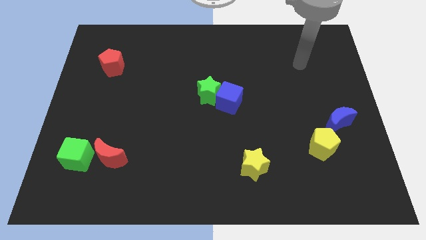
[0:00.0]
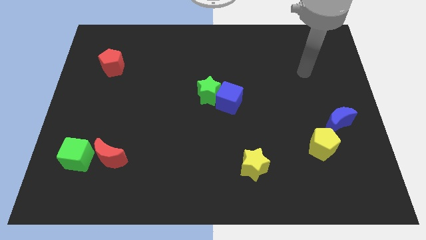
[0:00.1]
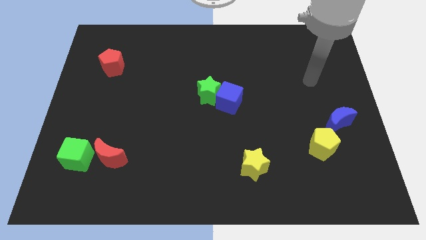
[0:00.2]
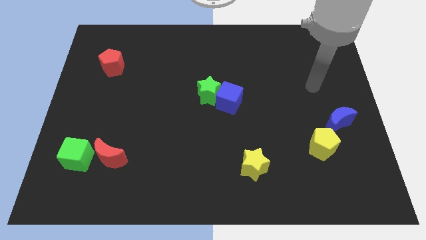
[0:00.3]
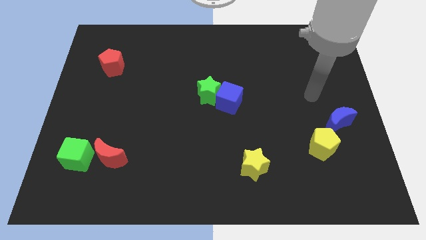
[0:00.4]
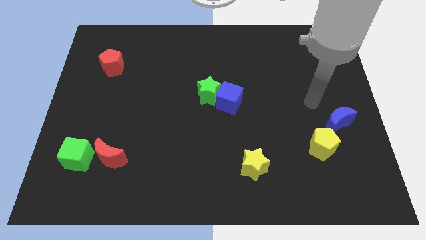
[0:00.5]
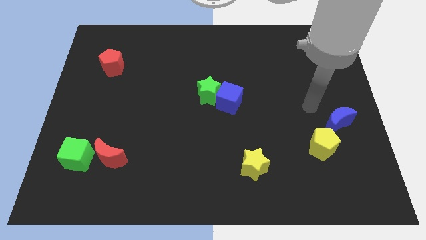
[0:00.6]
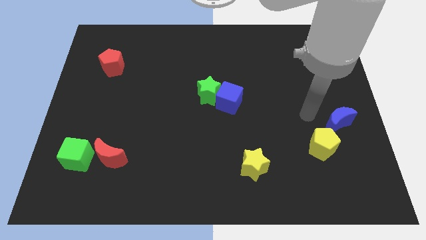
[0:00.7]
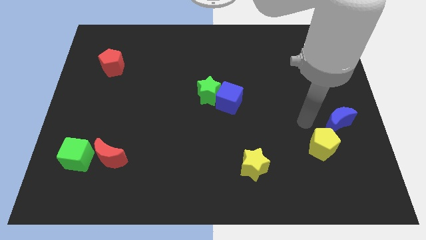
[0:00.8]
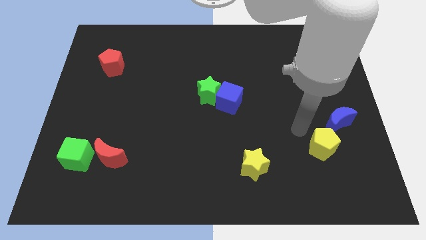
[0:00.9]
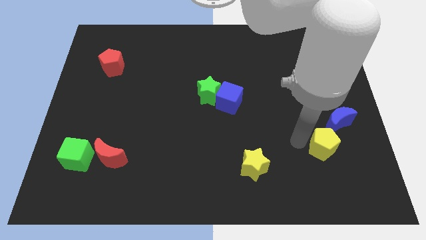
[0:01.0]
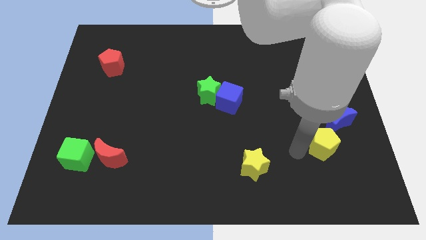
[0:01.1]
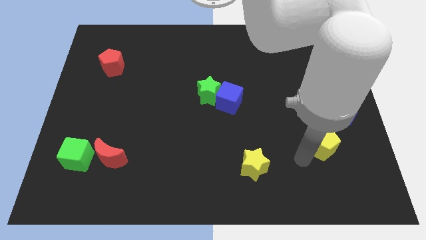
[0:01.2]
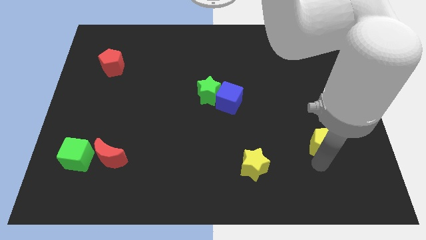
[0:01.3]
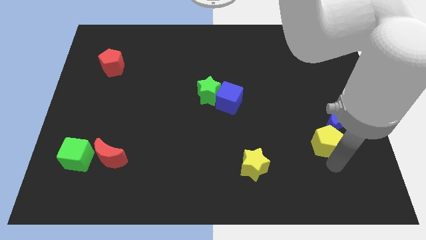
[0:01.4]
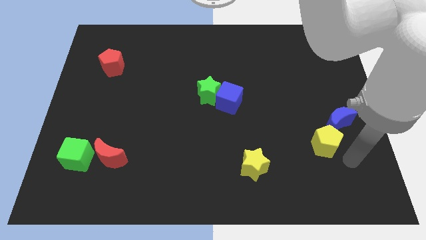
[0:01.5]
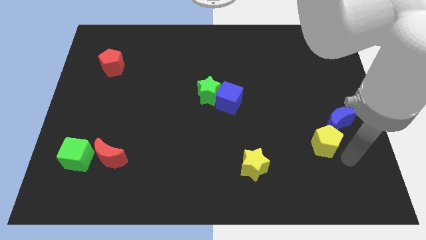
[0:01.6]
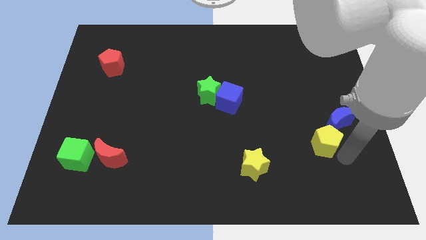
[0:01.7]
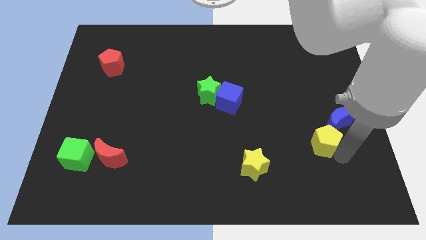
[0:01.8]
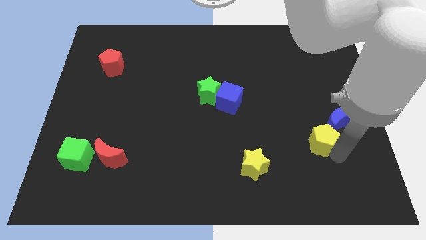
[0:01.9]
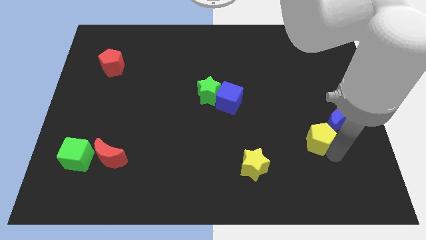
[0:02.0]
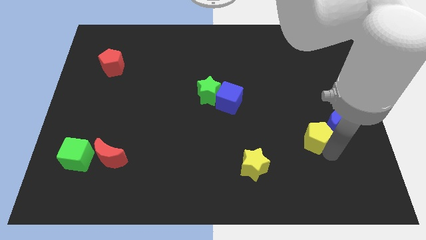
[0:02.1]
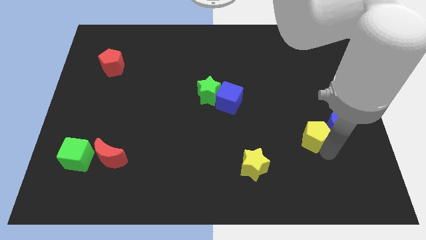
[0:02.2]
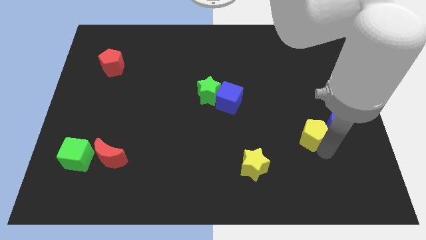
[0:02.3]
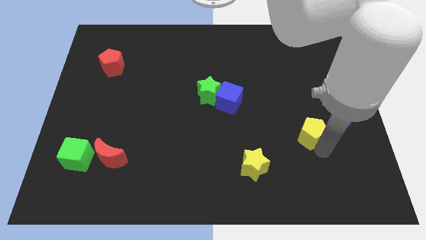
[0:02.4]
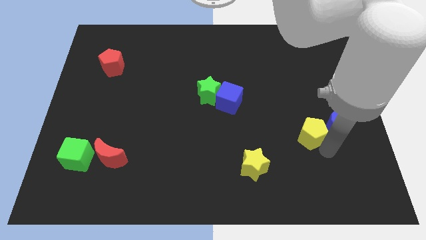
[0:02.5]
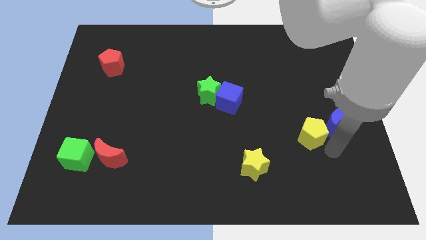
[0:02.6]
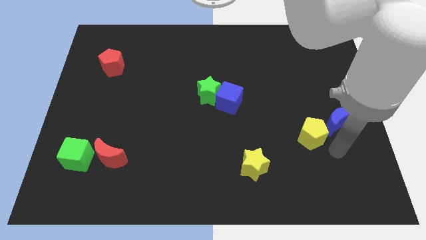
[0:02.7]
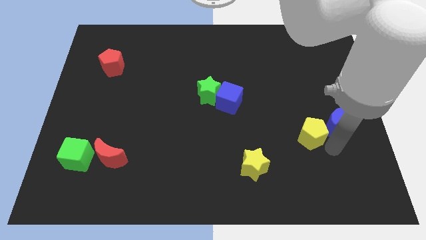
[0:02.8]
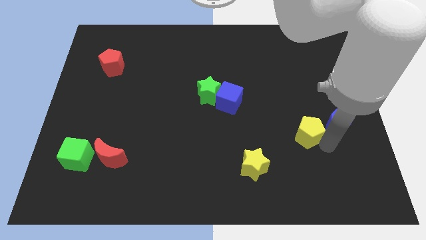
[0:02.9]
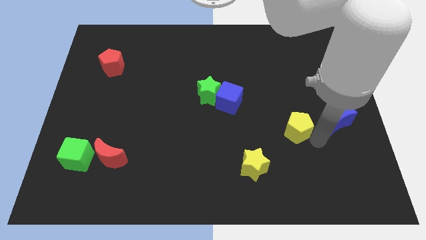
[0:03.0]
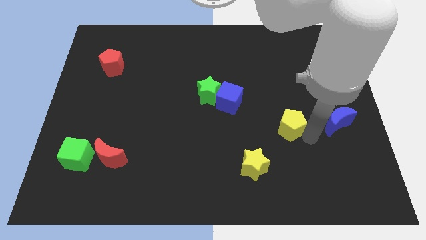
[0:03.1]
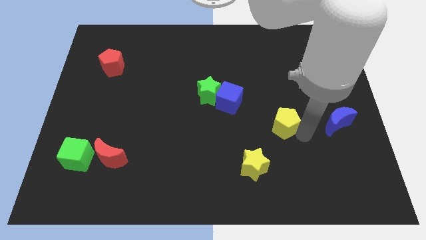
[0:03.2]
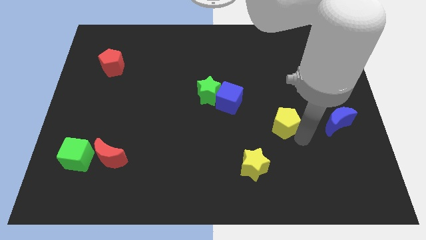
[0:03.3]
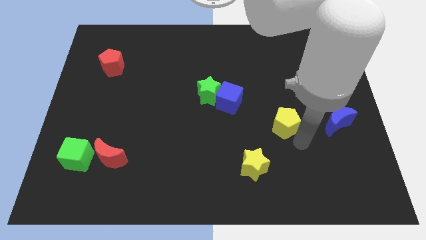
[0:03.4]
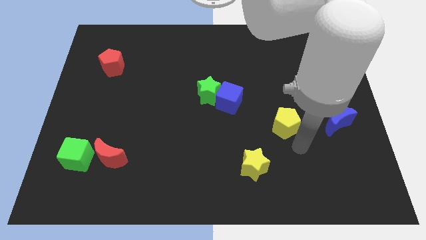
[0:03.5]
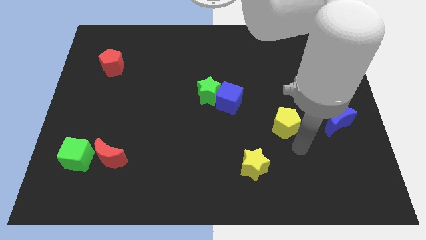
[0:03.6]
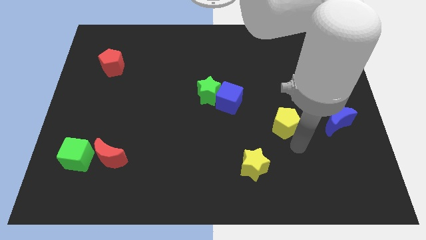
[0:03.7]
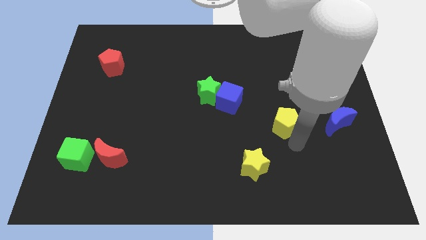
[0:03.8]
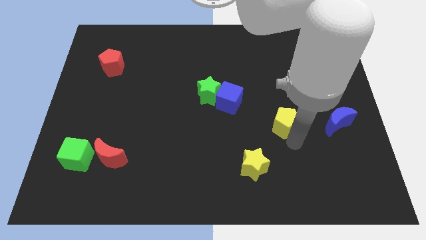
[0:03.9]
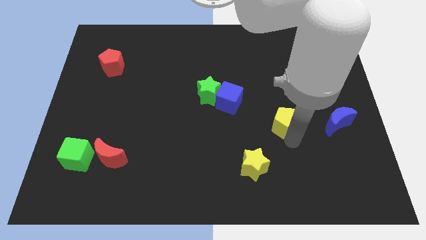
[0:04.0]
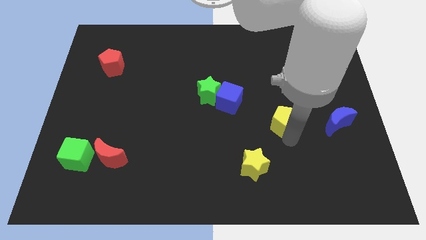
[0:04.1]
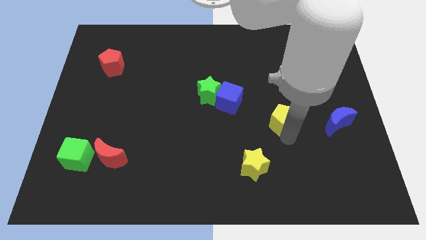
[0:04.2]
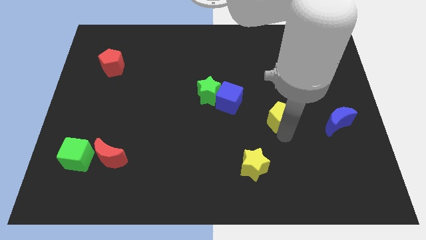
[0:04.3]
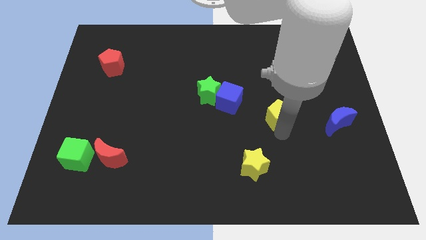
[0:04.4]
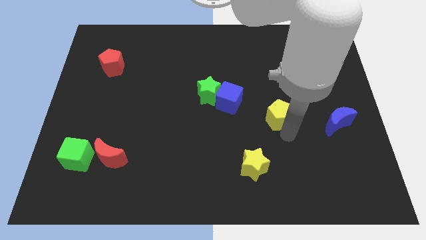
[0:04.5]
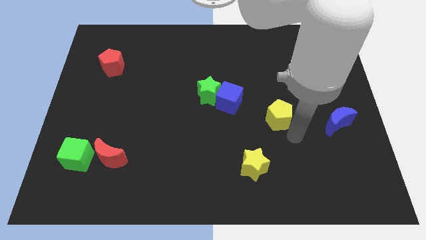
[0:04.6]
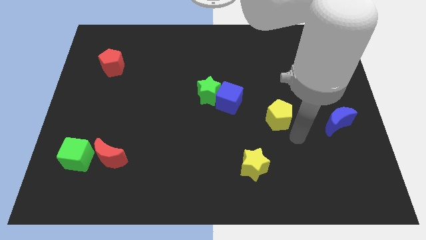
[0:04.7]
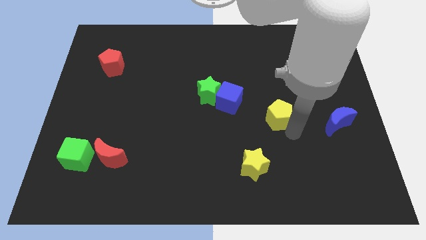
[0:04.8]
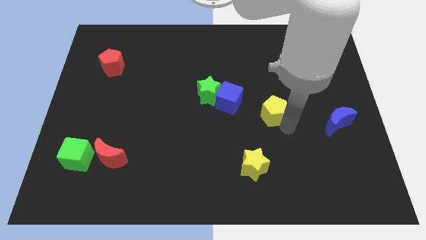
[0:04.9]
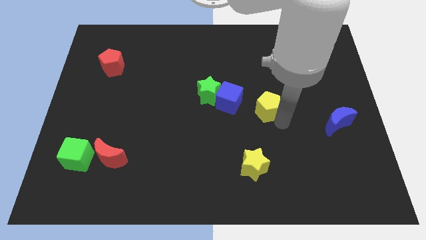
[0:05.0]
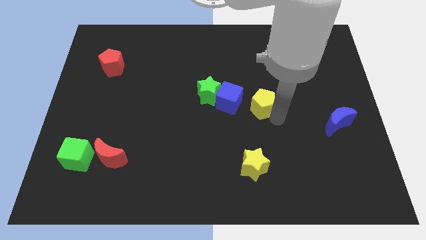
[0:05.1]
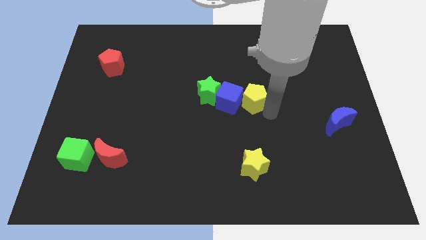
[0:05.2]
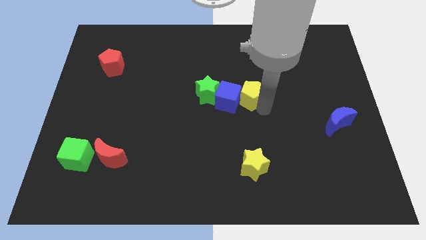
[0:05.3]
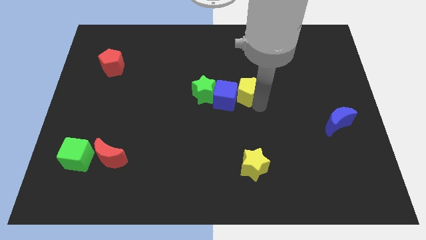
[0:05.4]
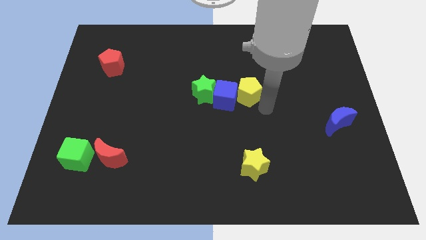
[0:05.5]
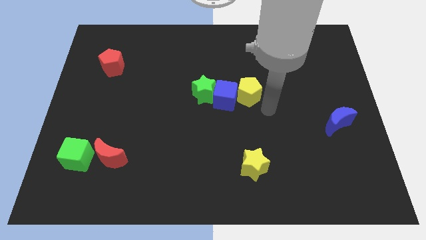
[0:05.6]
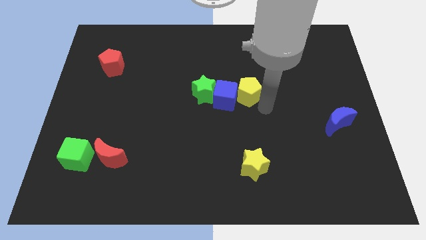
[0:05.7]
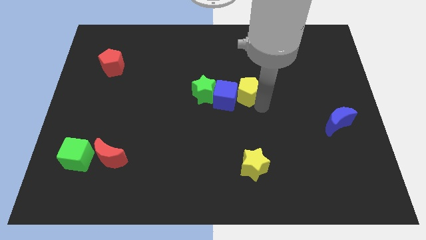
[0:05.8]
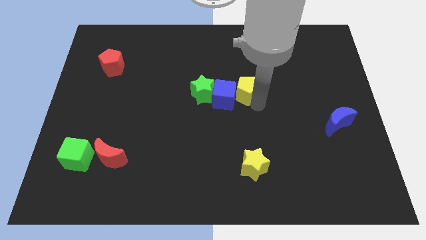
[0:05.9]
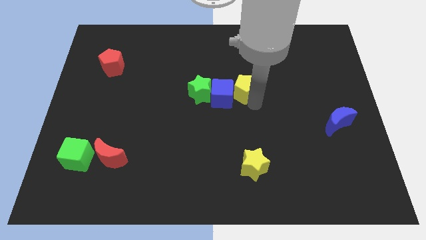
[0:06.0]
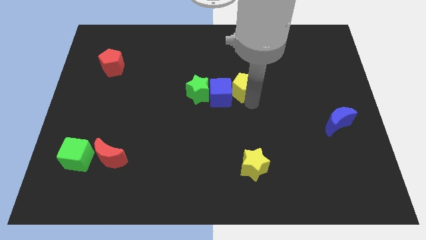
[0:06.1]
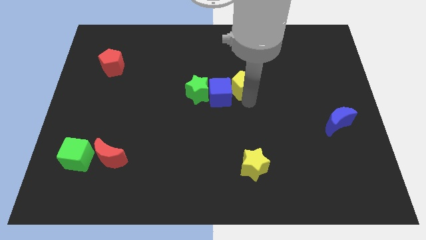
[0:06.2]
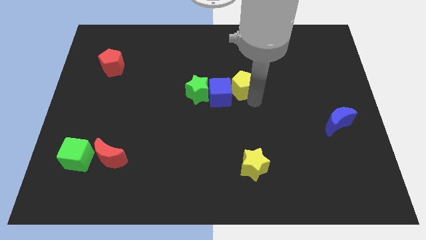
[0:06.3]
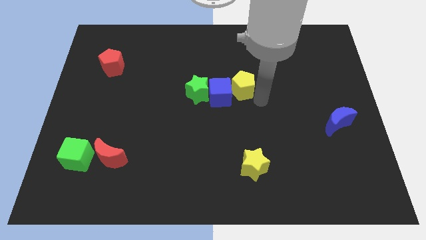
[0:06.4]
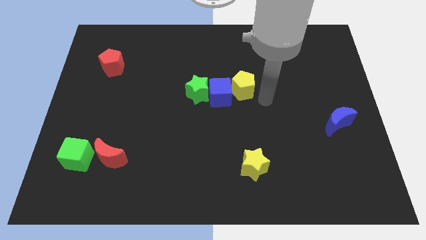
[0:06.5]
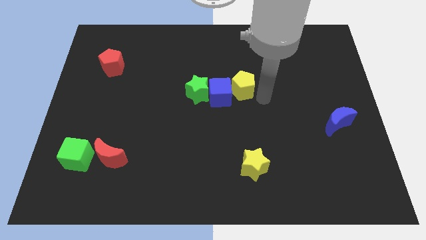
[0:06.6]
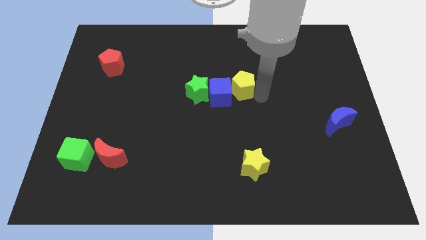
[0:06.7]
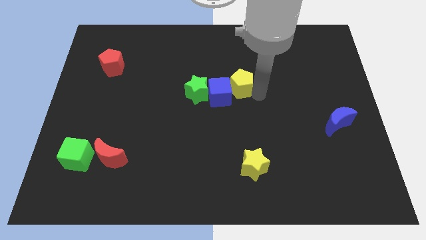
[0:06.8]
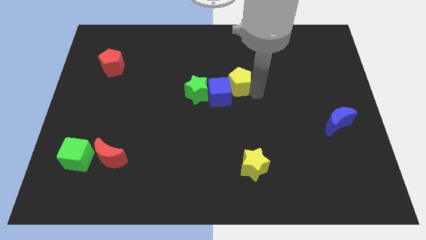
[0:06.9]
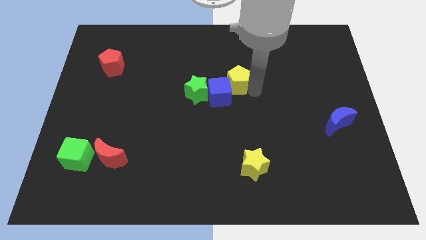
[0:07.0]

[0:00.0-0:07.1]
put the yellow pentagon diagonally up and to the right of the green star

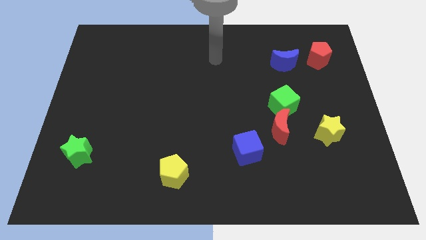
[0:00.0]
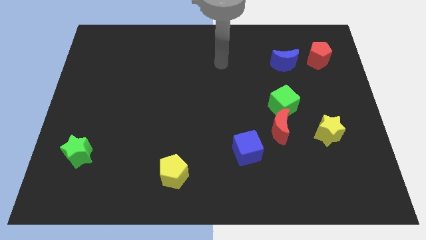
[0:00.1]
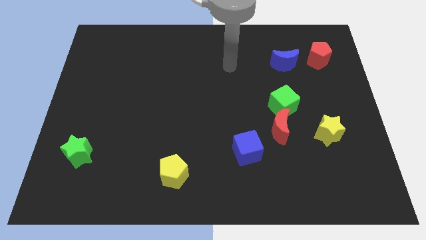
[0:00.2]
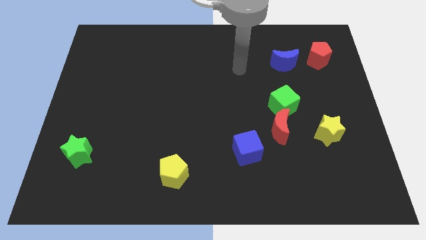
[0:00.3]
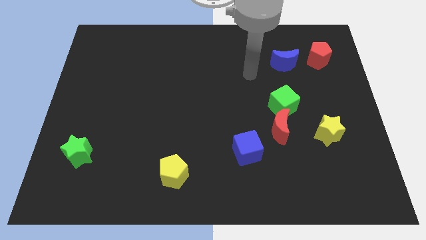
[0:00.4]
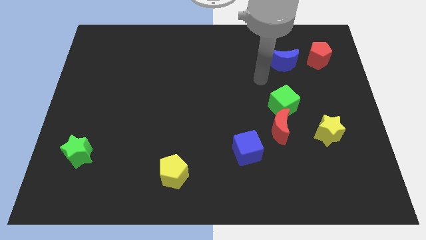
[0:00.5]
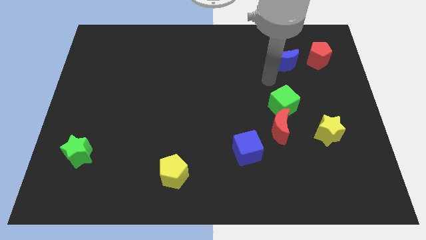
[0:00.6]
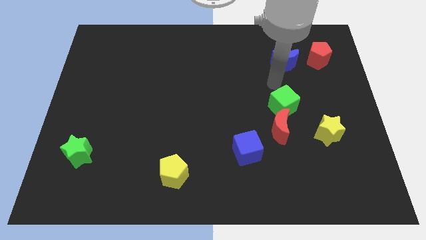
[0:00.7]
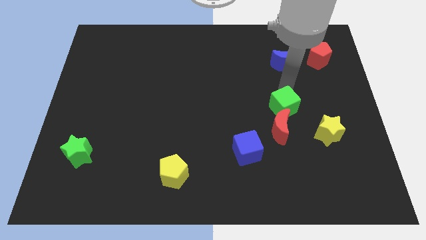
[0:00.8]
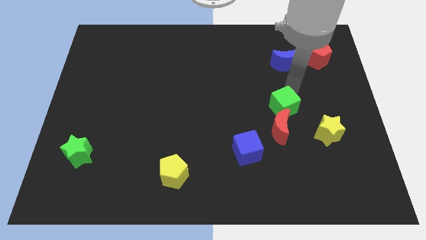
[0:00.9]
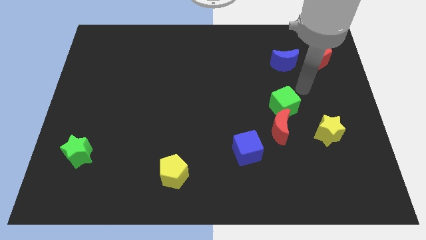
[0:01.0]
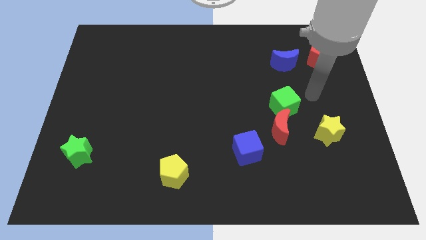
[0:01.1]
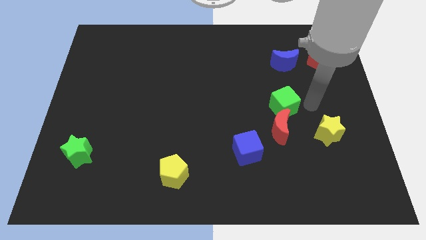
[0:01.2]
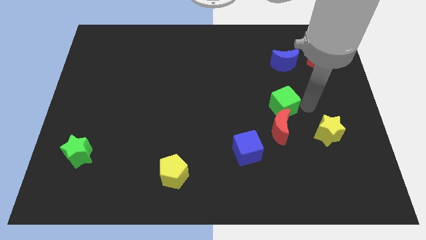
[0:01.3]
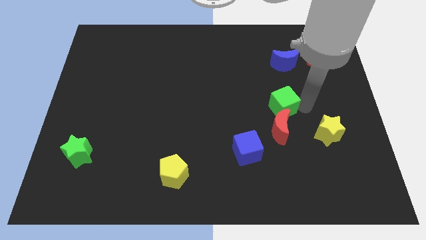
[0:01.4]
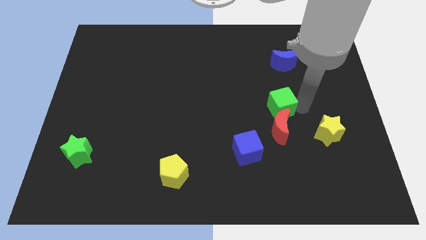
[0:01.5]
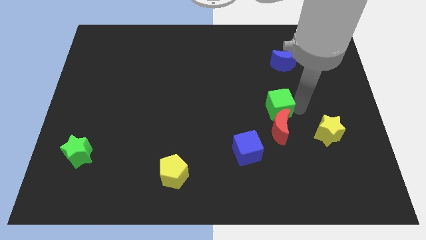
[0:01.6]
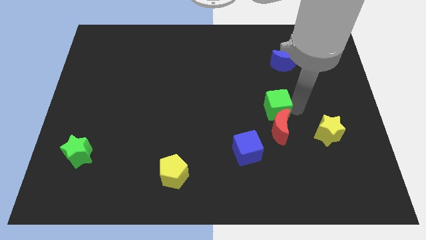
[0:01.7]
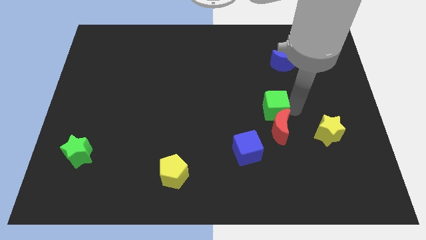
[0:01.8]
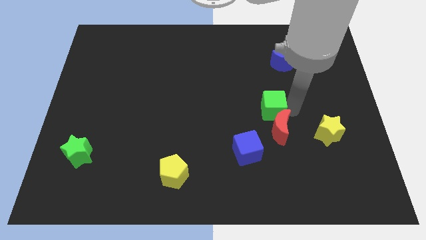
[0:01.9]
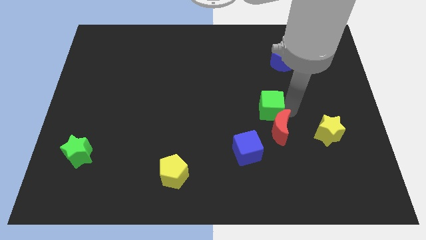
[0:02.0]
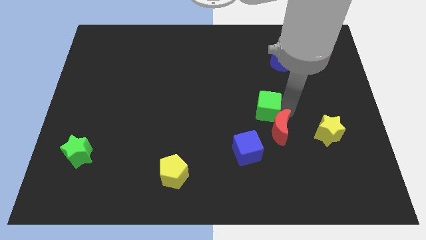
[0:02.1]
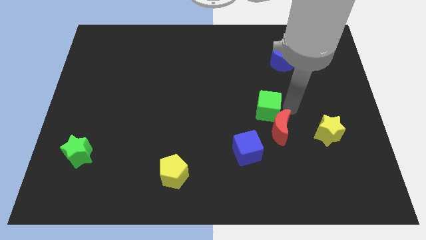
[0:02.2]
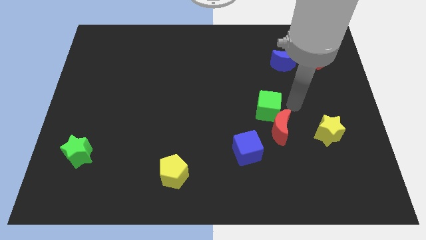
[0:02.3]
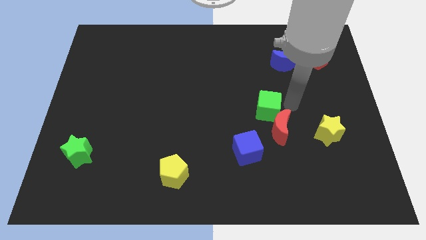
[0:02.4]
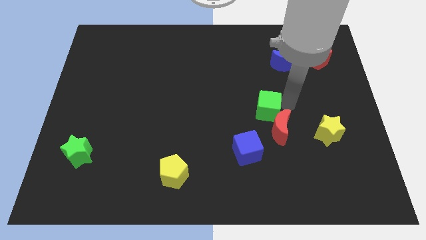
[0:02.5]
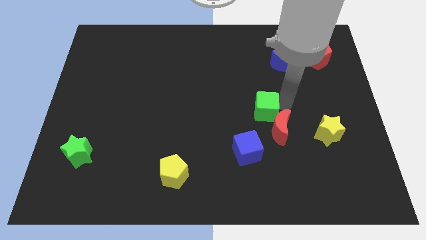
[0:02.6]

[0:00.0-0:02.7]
slide the green cube to the top side of the blue cube
